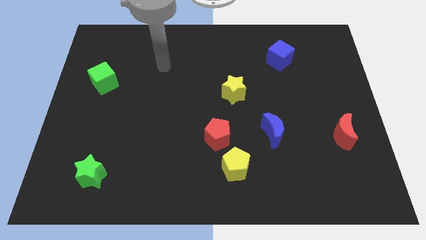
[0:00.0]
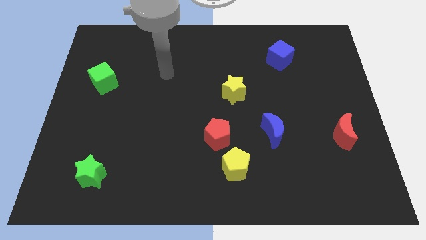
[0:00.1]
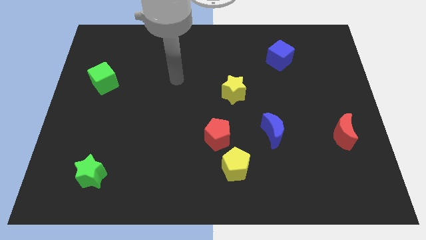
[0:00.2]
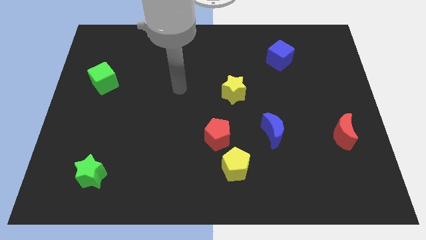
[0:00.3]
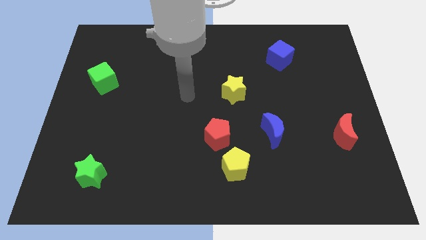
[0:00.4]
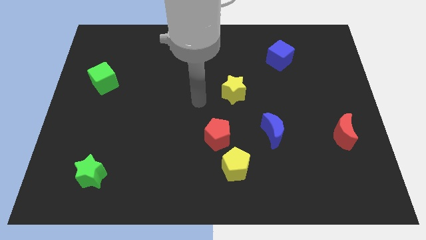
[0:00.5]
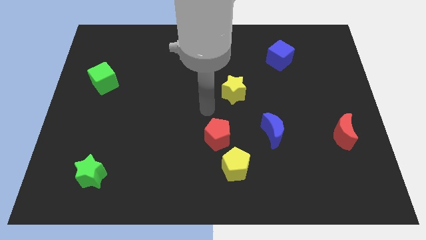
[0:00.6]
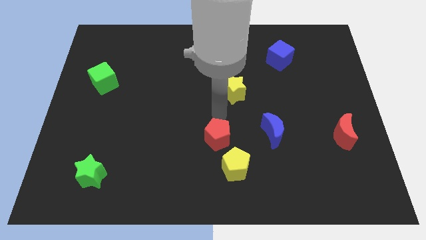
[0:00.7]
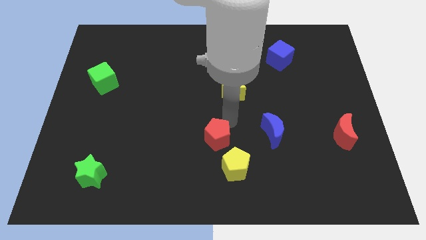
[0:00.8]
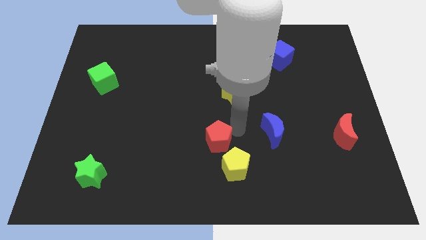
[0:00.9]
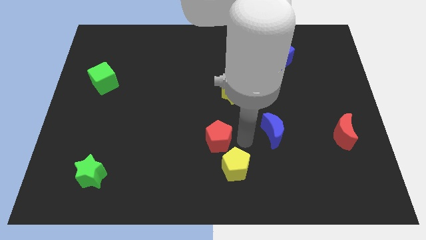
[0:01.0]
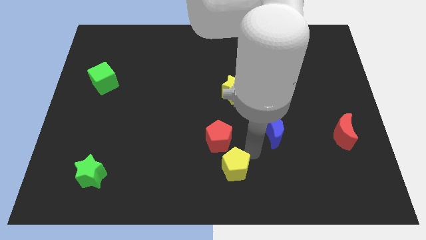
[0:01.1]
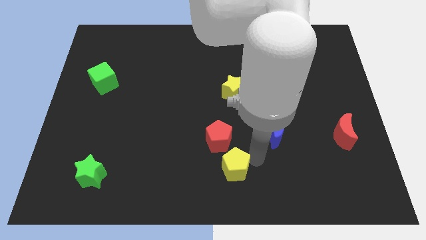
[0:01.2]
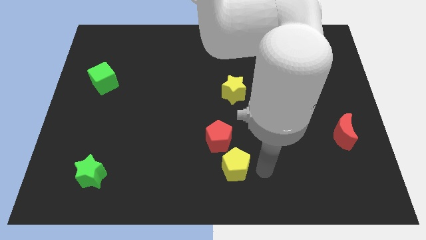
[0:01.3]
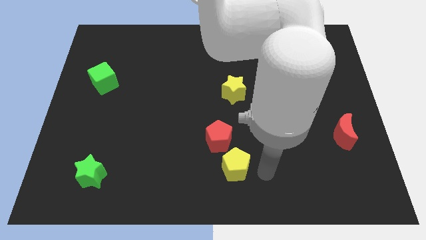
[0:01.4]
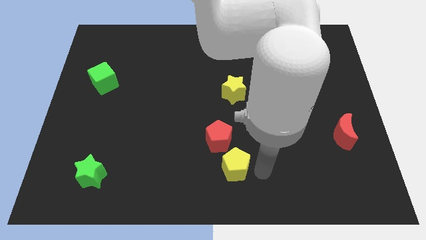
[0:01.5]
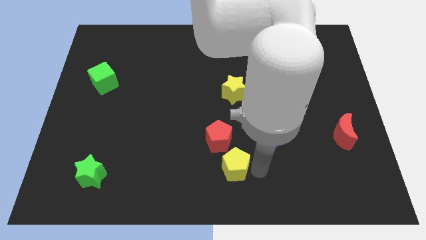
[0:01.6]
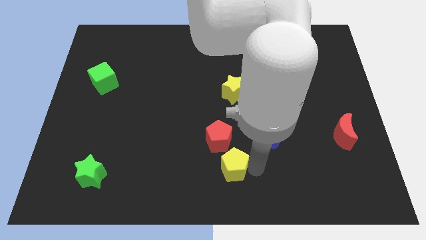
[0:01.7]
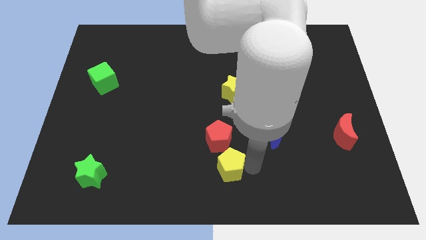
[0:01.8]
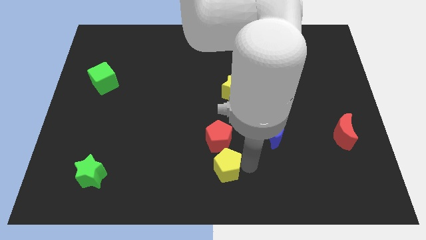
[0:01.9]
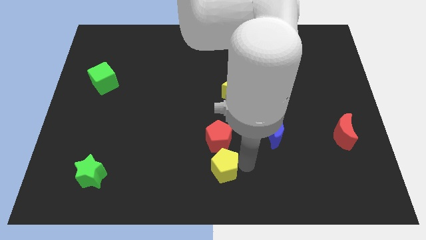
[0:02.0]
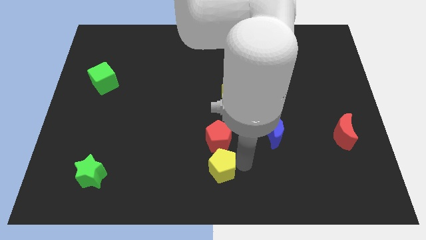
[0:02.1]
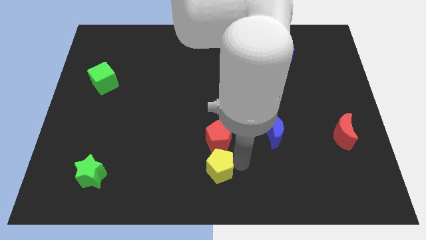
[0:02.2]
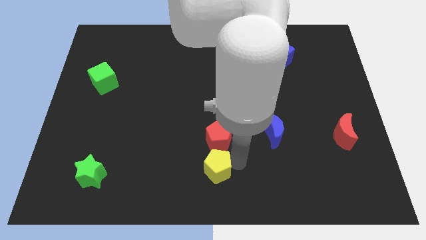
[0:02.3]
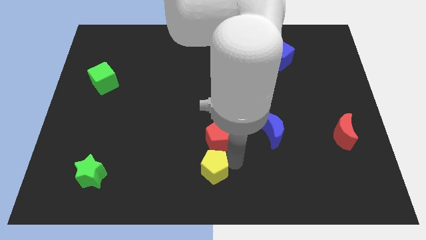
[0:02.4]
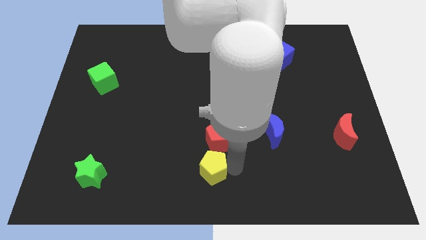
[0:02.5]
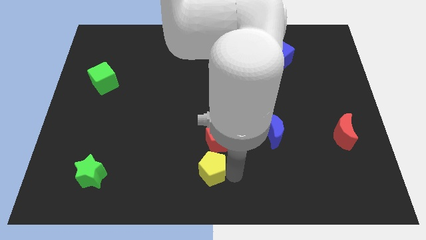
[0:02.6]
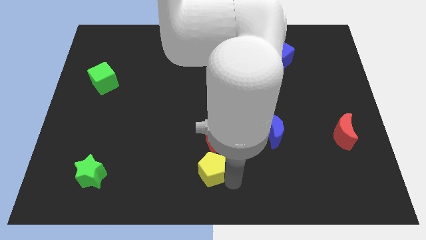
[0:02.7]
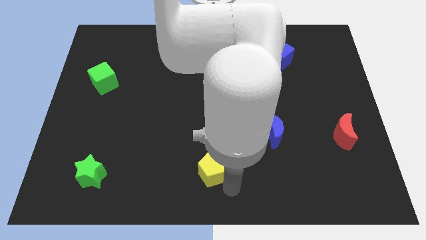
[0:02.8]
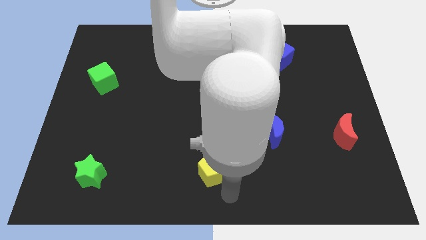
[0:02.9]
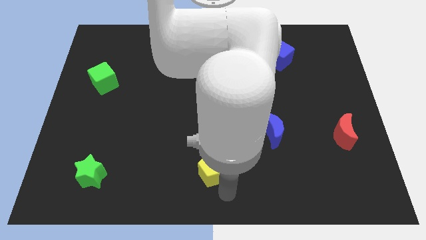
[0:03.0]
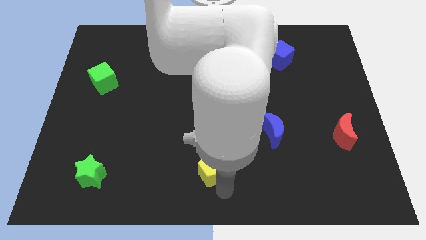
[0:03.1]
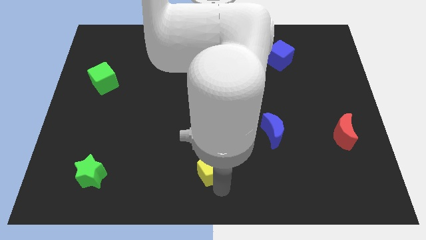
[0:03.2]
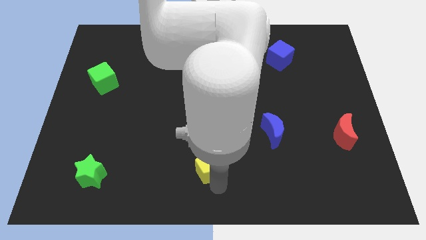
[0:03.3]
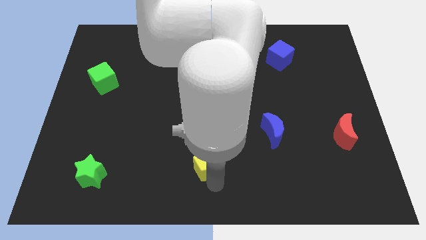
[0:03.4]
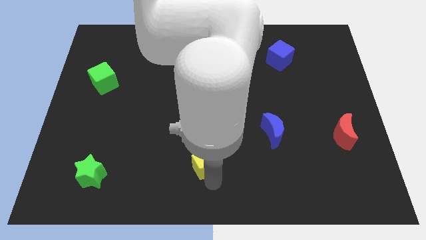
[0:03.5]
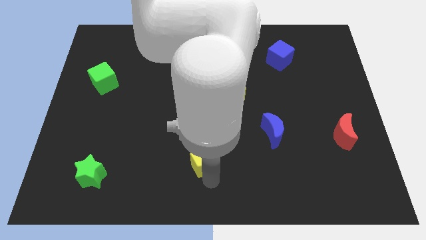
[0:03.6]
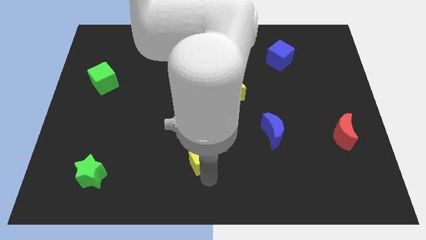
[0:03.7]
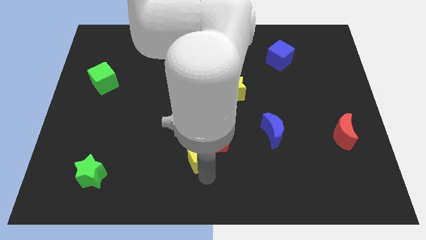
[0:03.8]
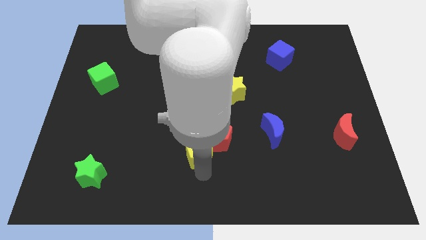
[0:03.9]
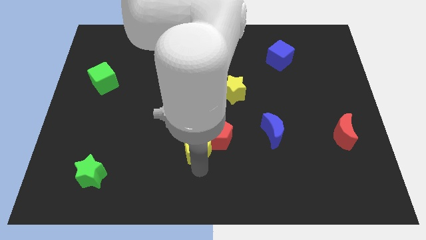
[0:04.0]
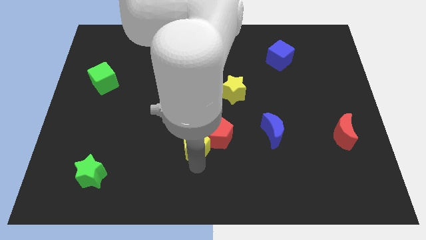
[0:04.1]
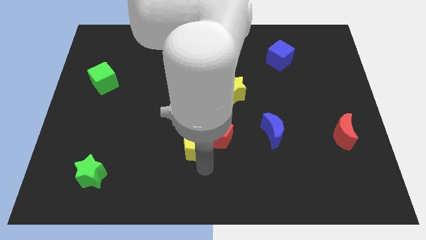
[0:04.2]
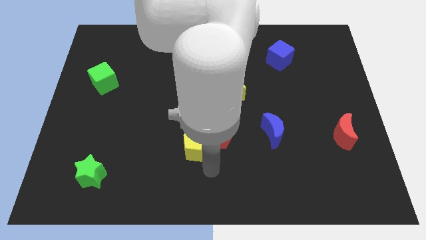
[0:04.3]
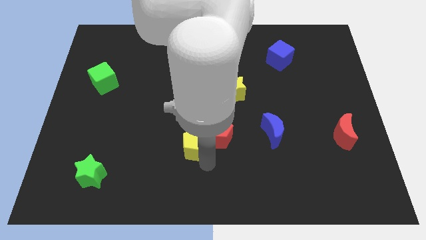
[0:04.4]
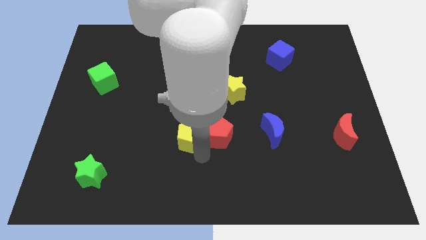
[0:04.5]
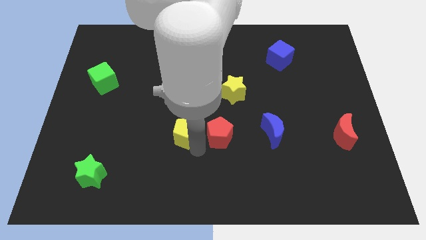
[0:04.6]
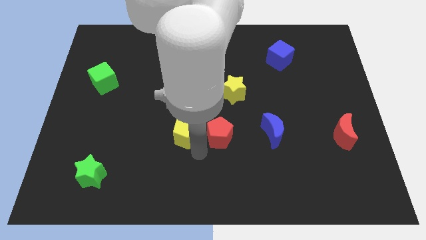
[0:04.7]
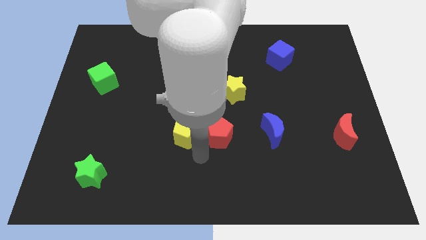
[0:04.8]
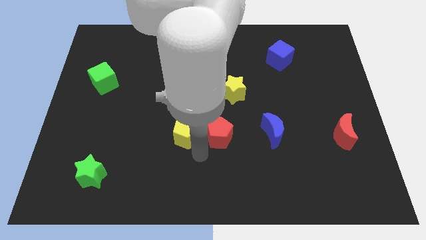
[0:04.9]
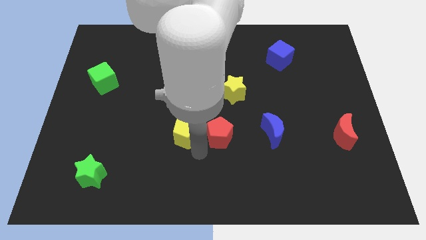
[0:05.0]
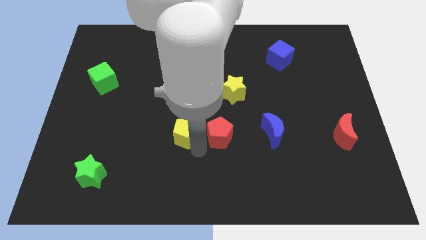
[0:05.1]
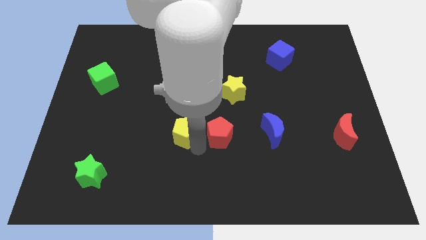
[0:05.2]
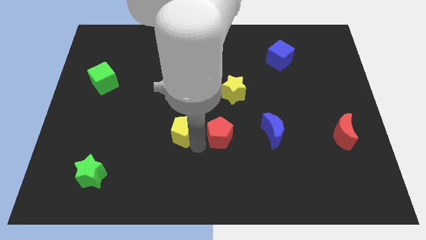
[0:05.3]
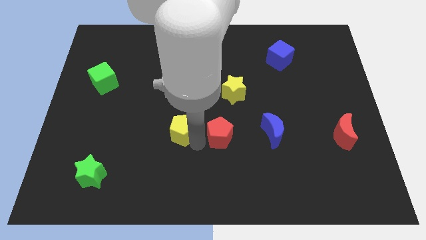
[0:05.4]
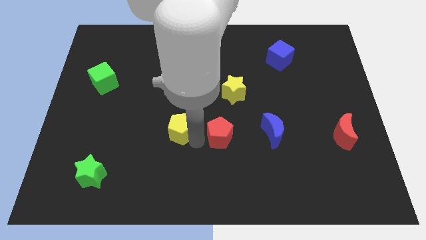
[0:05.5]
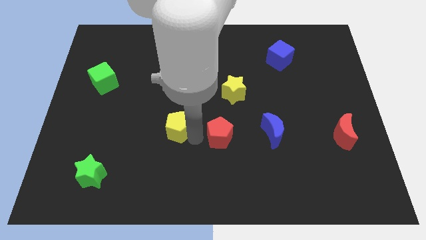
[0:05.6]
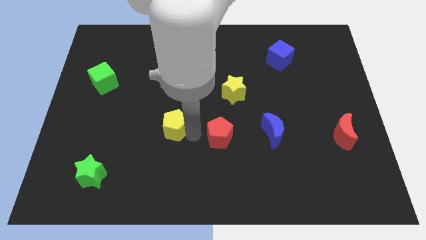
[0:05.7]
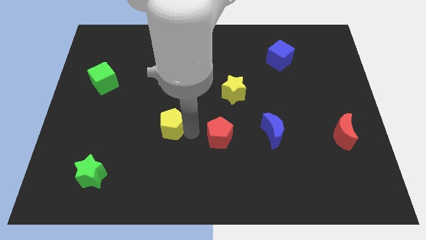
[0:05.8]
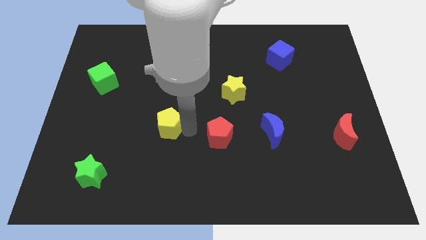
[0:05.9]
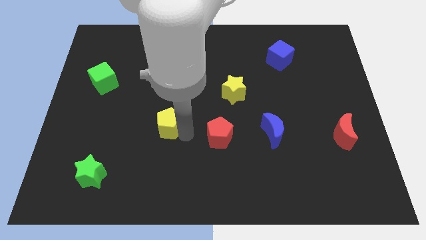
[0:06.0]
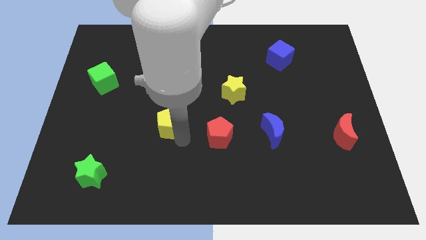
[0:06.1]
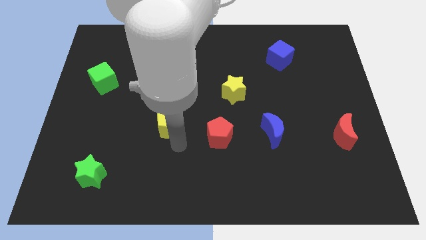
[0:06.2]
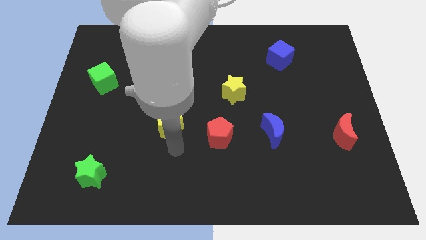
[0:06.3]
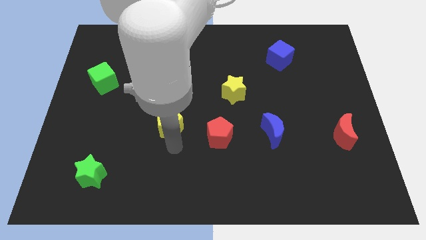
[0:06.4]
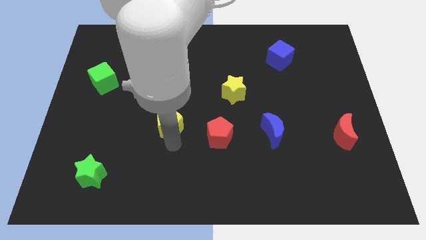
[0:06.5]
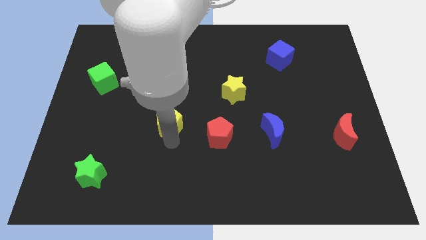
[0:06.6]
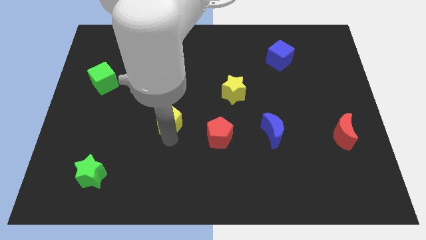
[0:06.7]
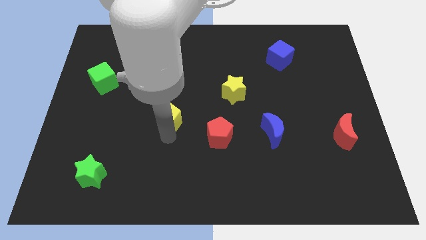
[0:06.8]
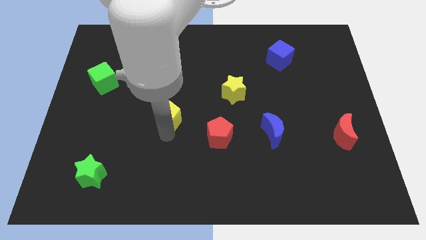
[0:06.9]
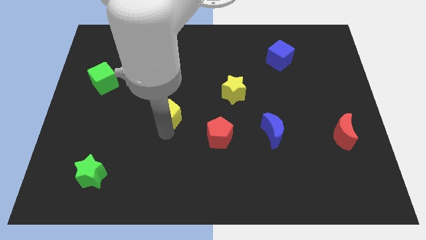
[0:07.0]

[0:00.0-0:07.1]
slide the yellow pentagon diagonally upwards and to the left

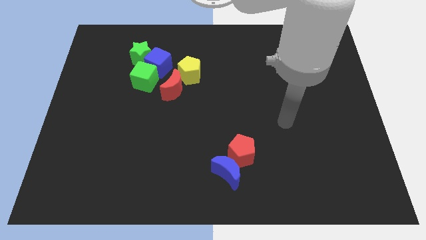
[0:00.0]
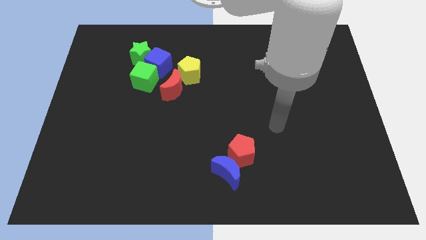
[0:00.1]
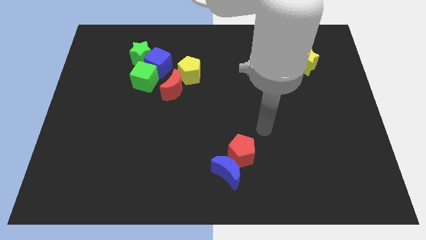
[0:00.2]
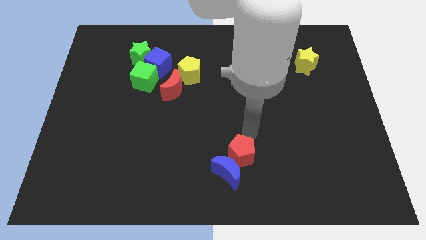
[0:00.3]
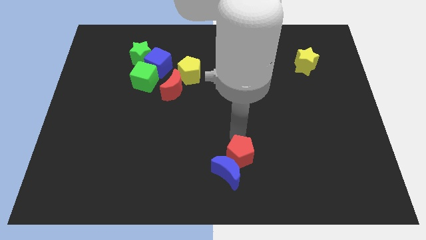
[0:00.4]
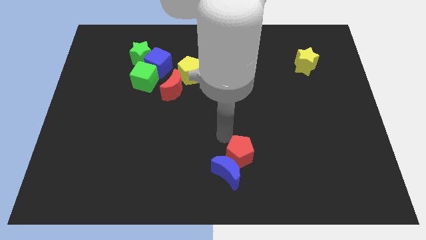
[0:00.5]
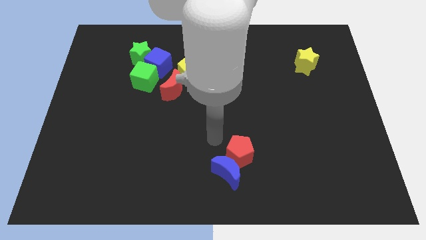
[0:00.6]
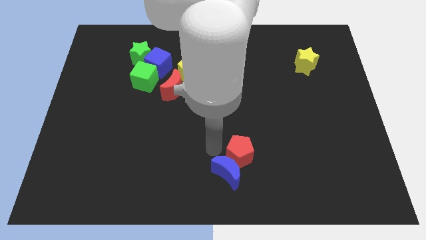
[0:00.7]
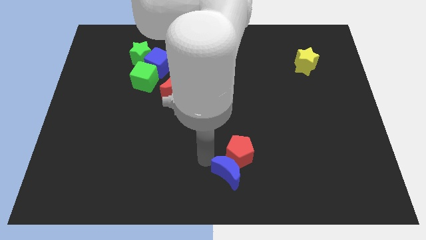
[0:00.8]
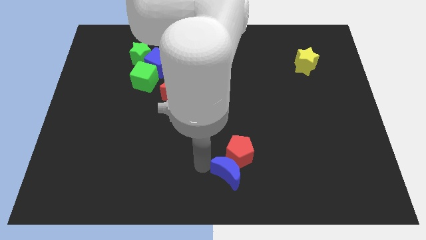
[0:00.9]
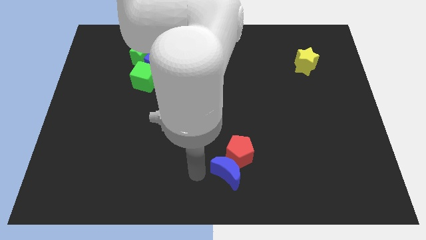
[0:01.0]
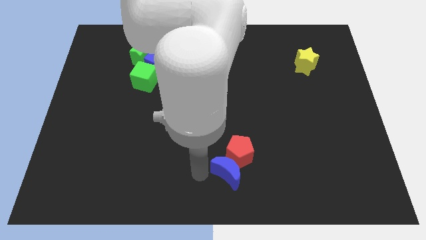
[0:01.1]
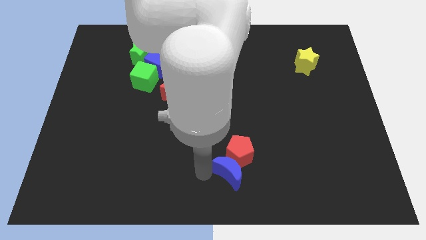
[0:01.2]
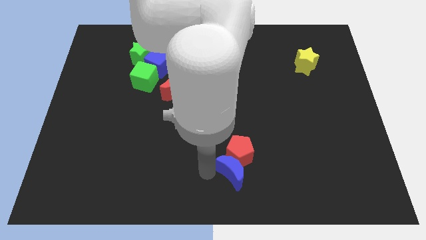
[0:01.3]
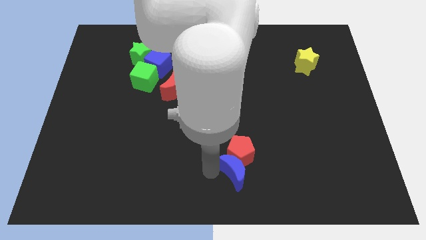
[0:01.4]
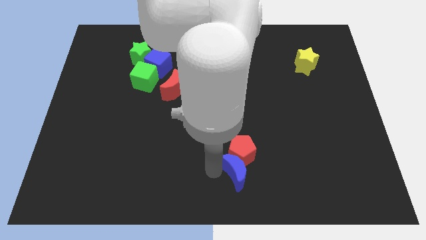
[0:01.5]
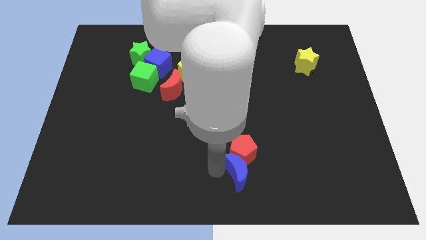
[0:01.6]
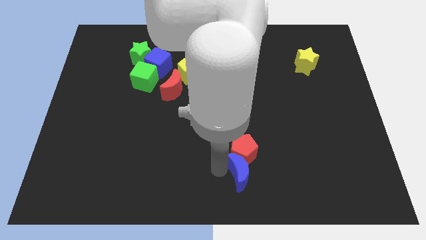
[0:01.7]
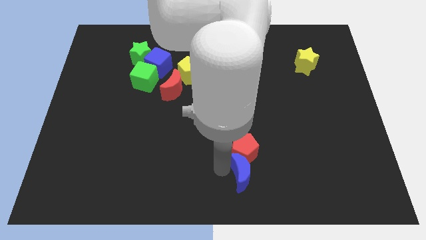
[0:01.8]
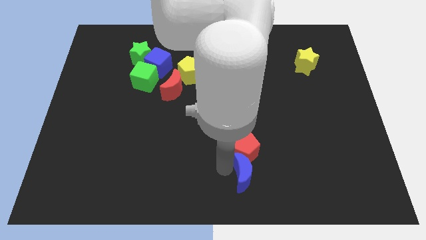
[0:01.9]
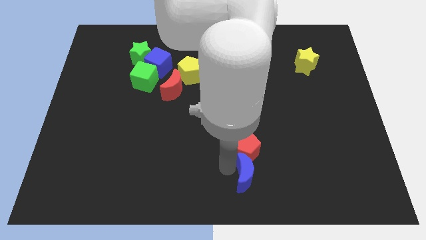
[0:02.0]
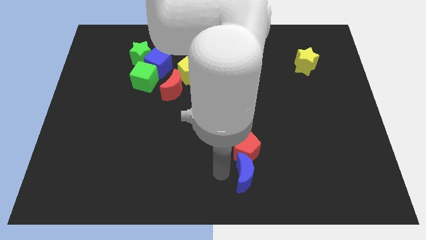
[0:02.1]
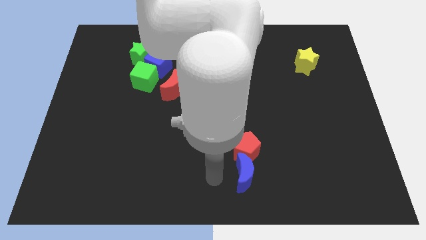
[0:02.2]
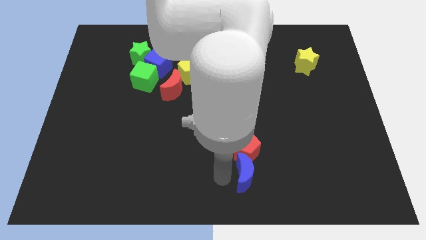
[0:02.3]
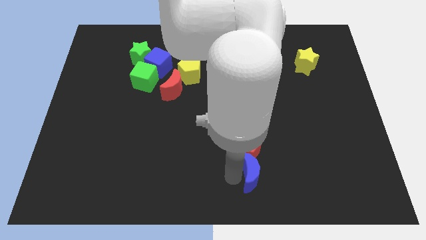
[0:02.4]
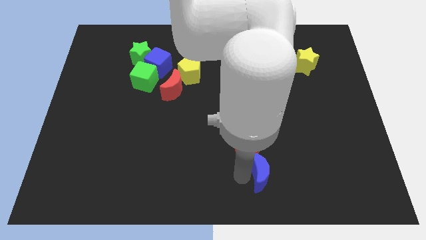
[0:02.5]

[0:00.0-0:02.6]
slide the blue moon to the right somewhat
